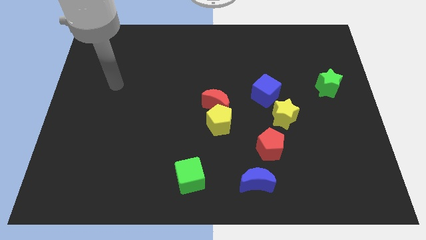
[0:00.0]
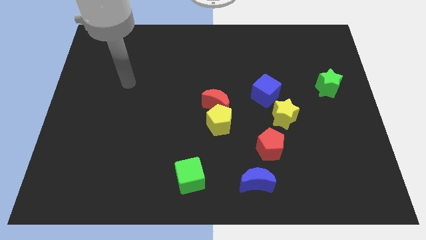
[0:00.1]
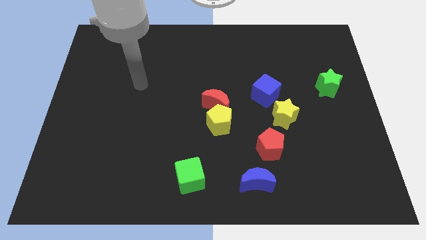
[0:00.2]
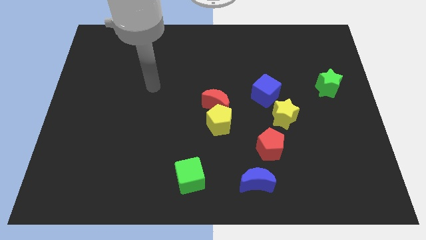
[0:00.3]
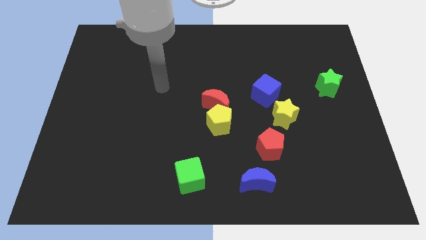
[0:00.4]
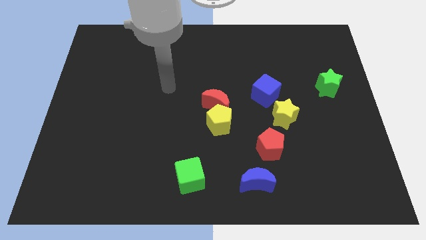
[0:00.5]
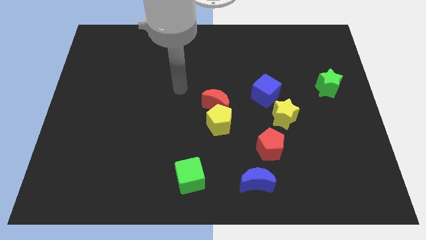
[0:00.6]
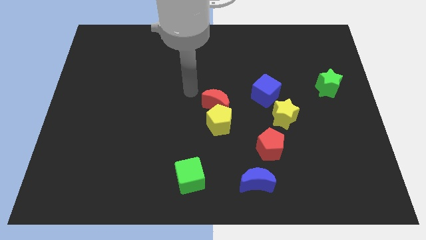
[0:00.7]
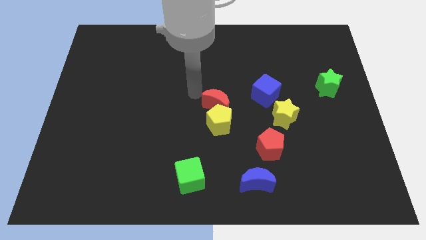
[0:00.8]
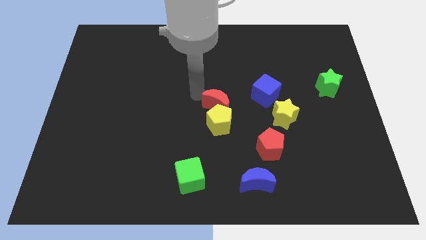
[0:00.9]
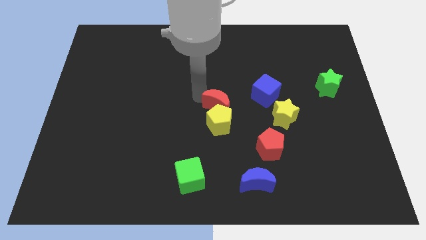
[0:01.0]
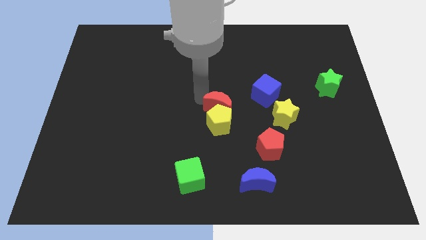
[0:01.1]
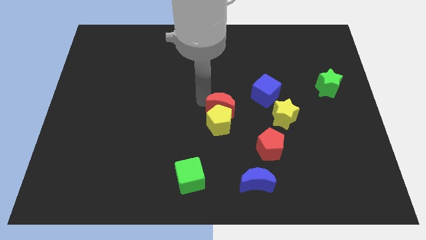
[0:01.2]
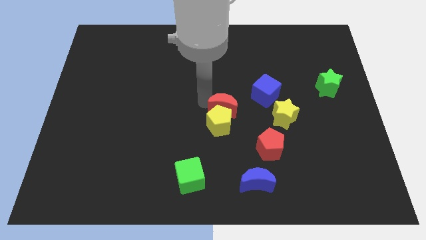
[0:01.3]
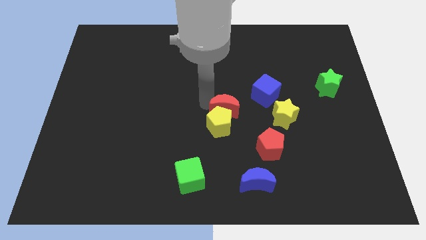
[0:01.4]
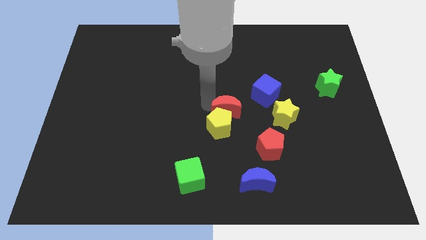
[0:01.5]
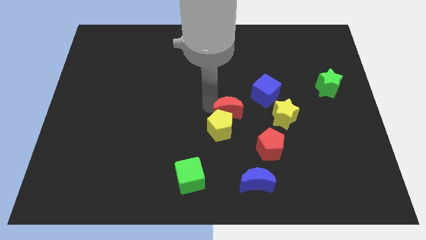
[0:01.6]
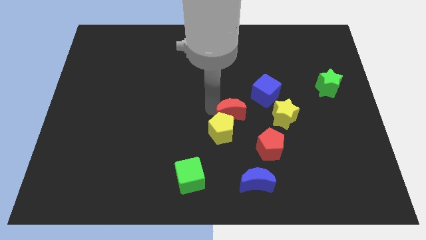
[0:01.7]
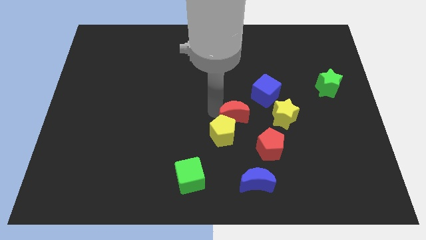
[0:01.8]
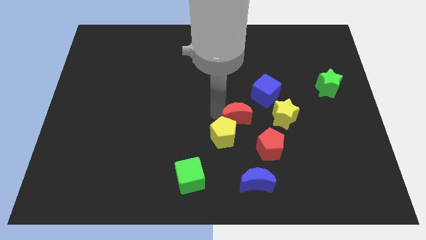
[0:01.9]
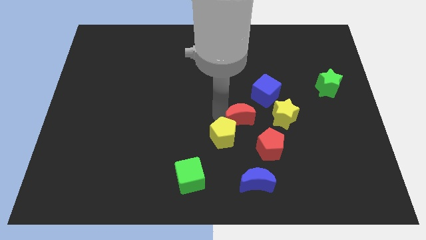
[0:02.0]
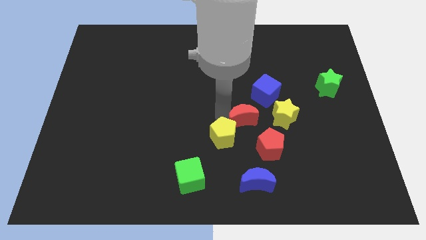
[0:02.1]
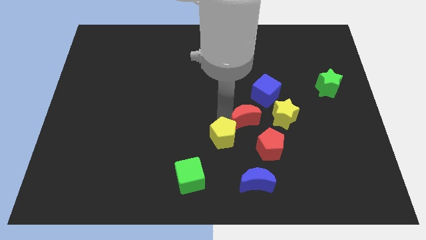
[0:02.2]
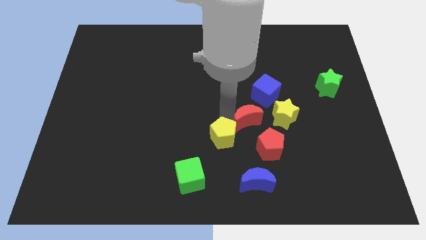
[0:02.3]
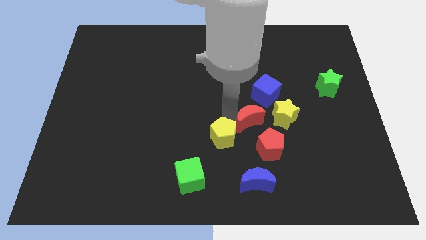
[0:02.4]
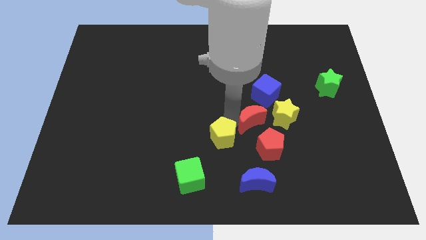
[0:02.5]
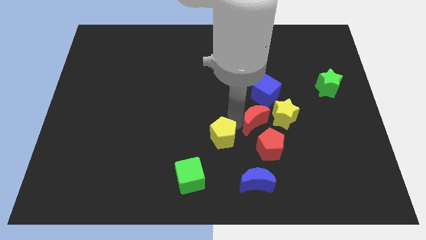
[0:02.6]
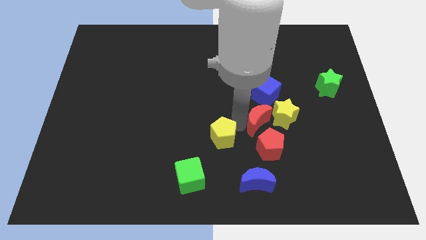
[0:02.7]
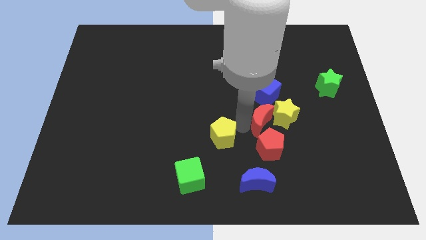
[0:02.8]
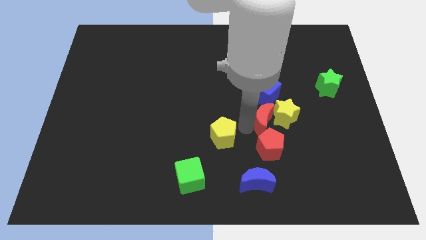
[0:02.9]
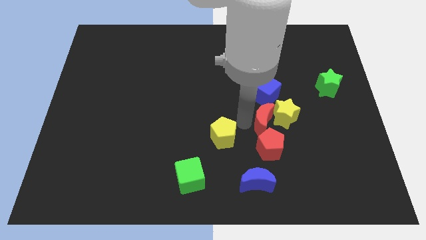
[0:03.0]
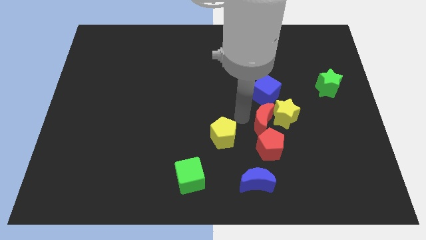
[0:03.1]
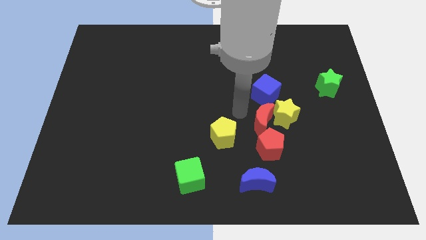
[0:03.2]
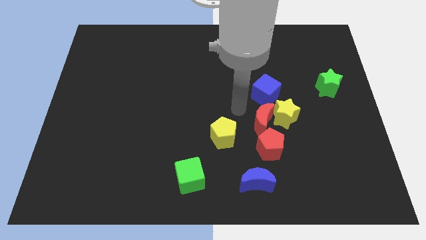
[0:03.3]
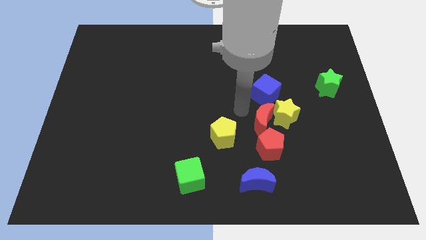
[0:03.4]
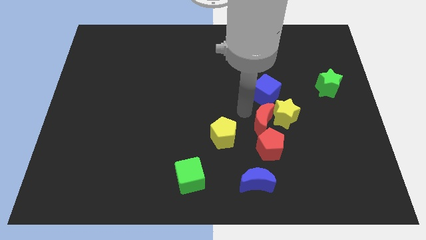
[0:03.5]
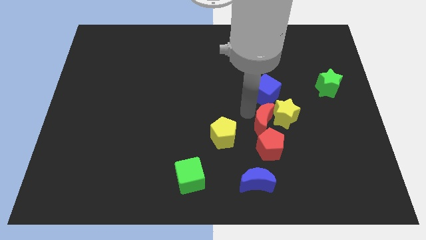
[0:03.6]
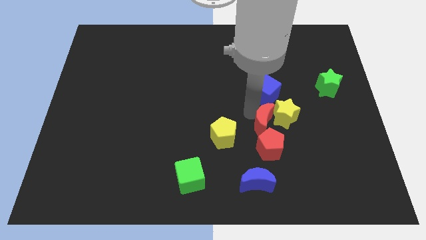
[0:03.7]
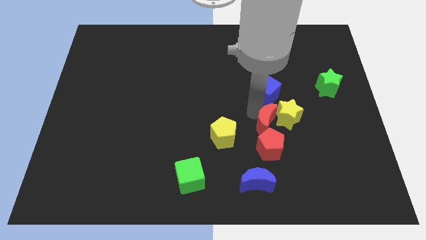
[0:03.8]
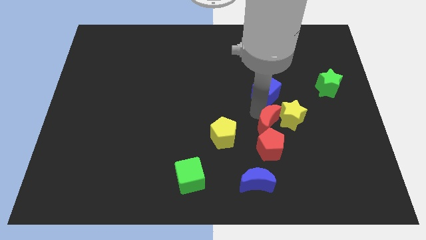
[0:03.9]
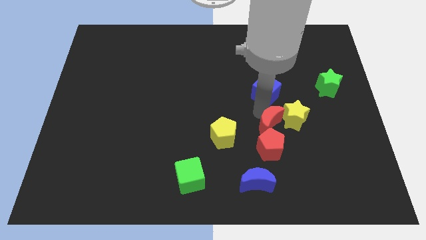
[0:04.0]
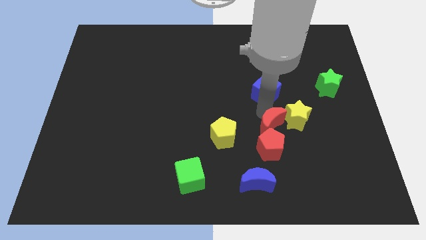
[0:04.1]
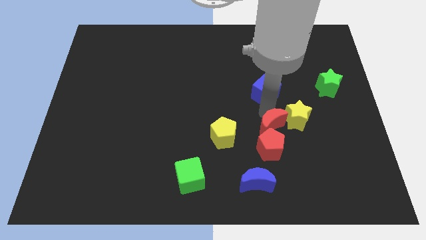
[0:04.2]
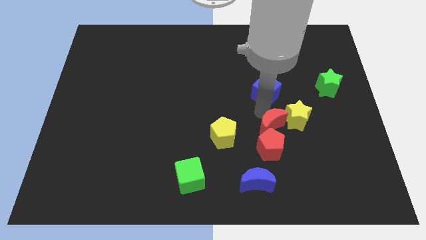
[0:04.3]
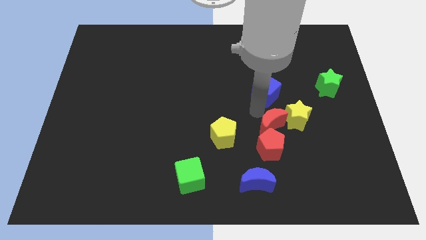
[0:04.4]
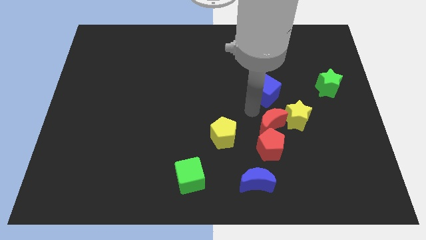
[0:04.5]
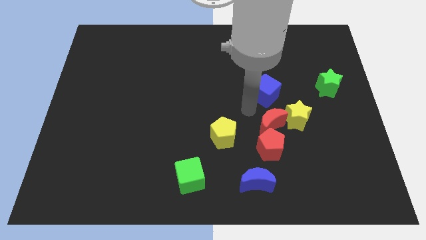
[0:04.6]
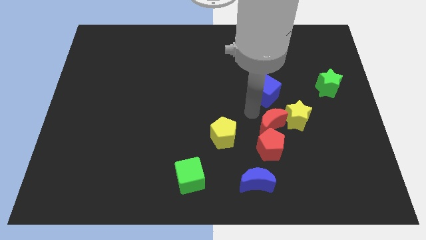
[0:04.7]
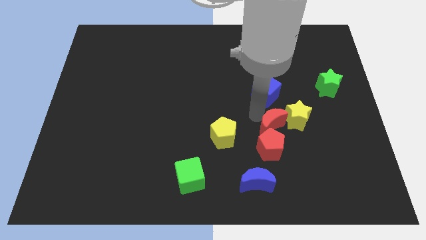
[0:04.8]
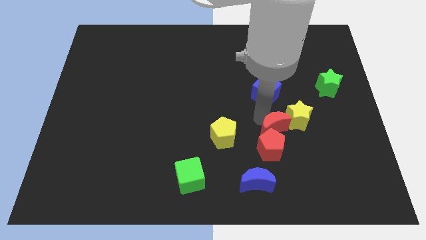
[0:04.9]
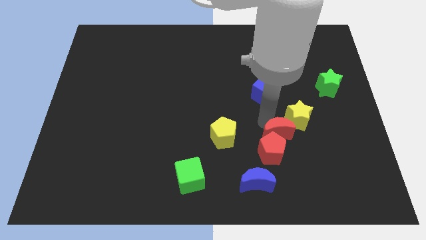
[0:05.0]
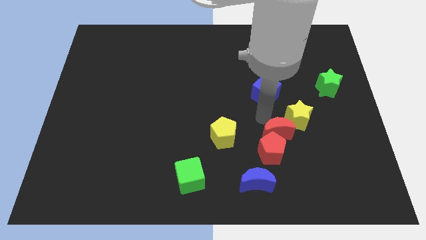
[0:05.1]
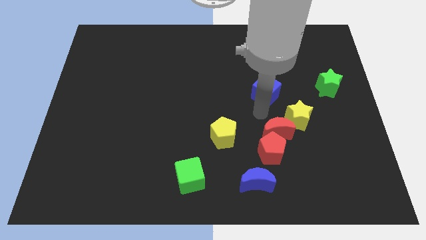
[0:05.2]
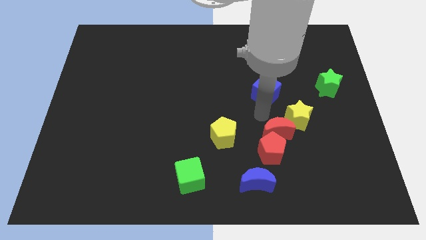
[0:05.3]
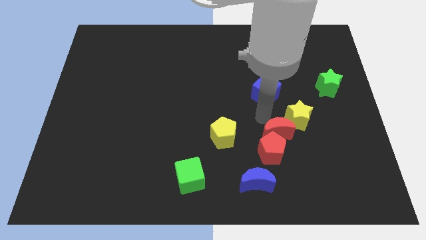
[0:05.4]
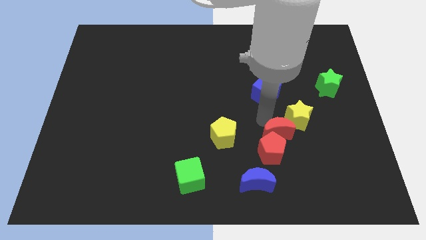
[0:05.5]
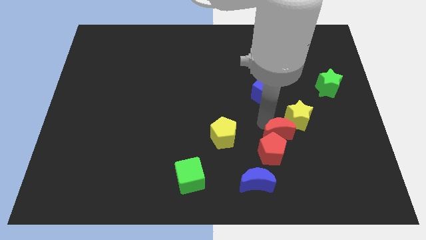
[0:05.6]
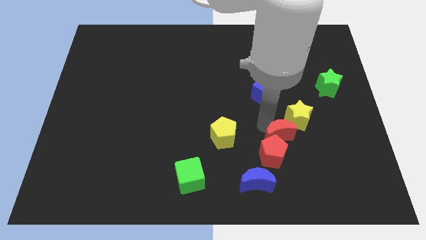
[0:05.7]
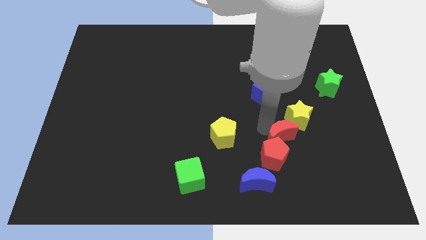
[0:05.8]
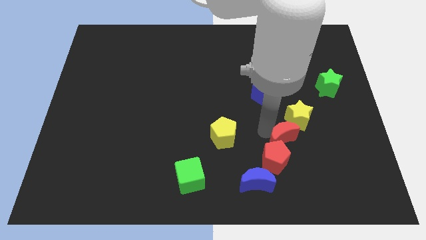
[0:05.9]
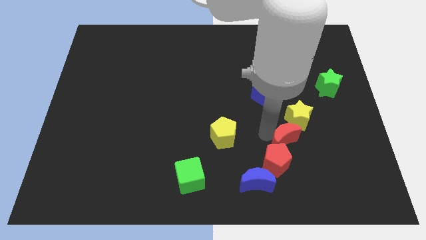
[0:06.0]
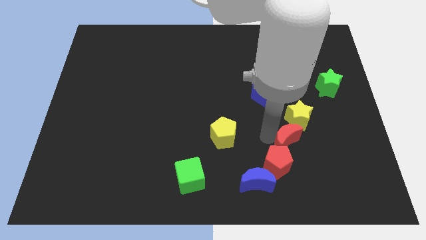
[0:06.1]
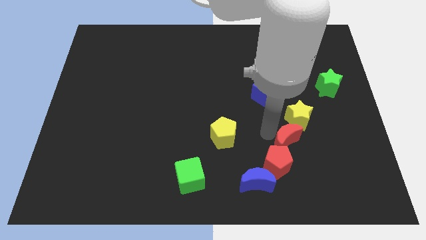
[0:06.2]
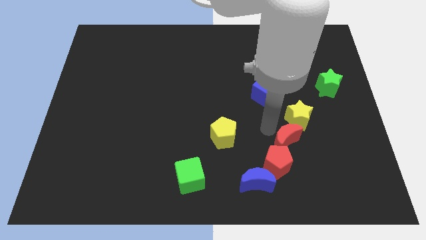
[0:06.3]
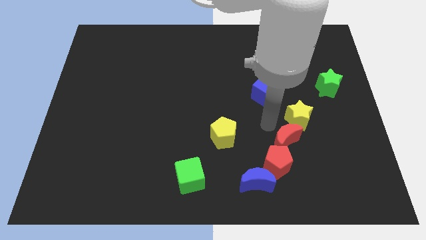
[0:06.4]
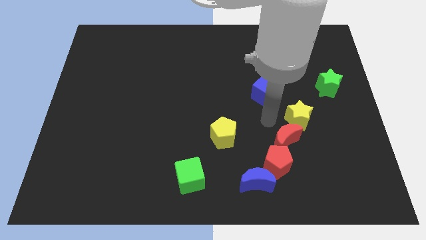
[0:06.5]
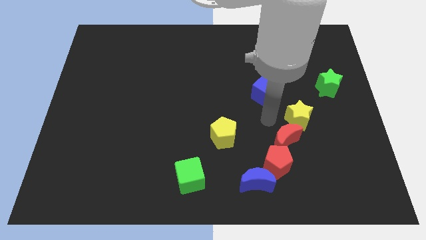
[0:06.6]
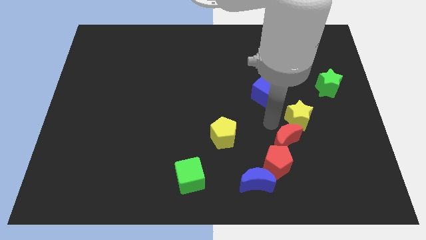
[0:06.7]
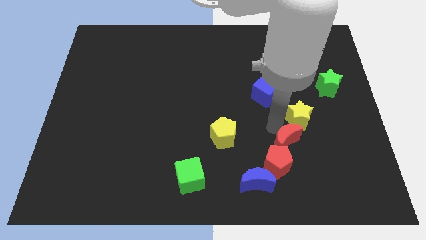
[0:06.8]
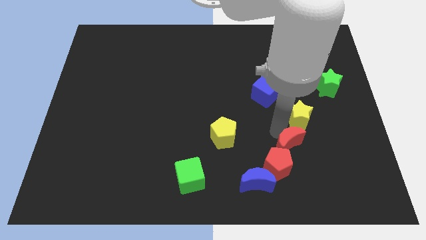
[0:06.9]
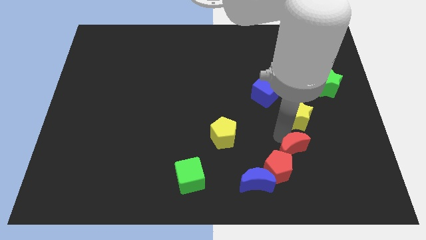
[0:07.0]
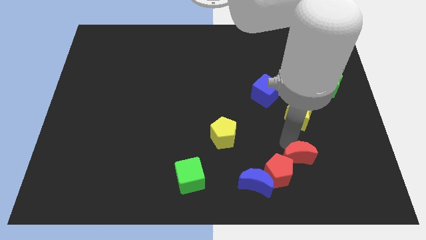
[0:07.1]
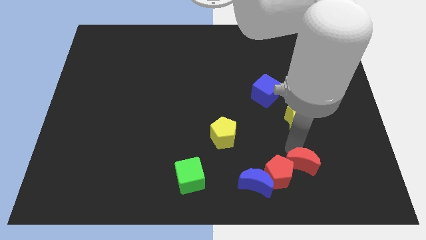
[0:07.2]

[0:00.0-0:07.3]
move the red moon to the right side of the blue moon
